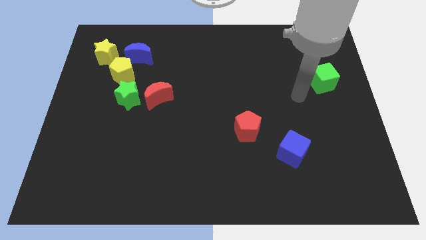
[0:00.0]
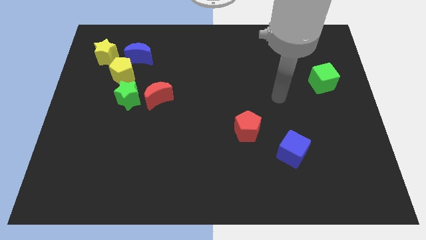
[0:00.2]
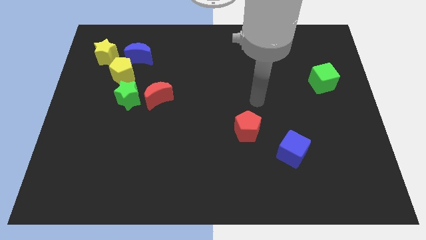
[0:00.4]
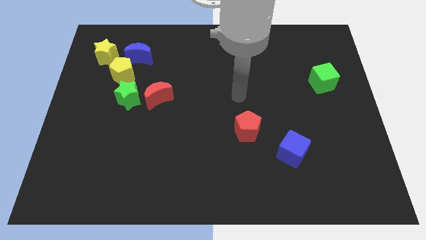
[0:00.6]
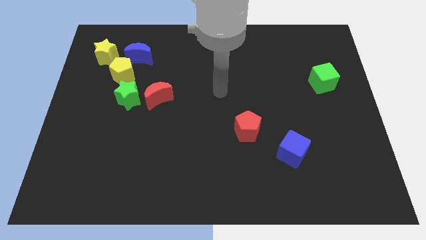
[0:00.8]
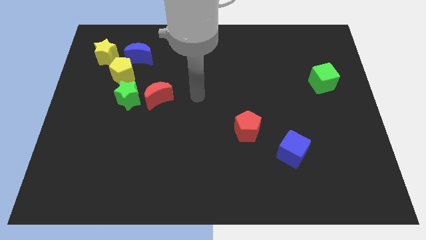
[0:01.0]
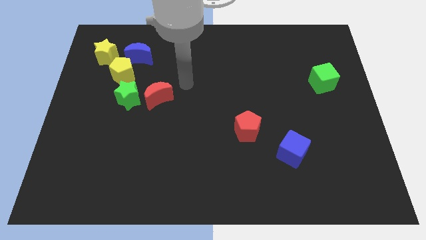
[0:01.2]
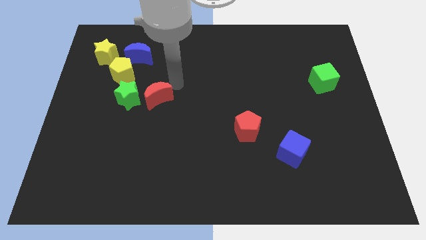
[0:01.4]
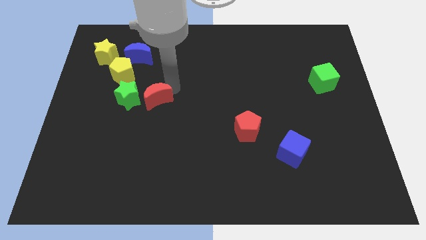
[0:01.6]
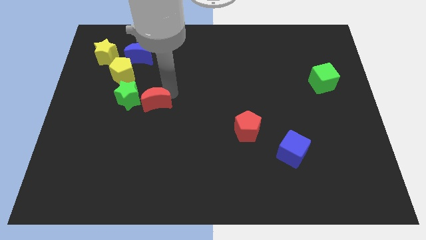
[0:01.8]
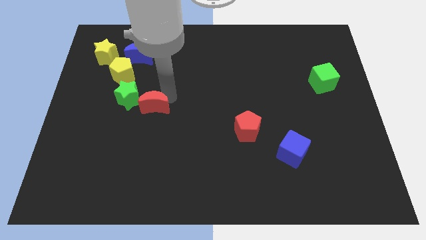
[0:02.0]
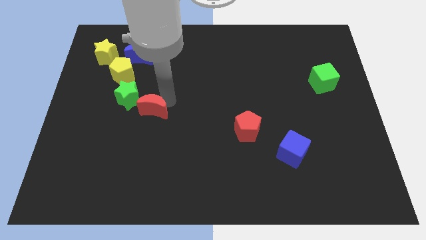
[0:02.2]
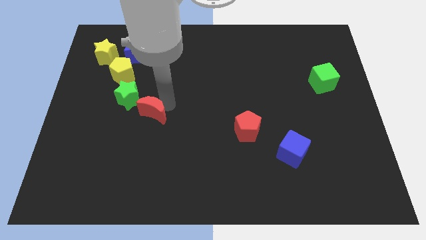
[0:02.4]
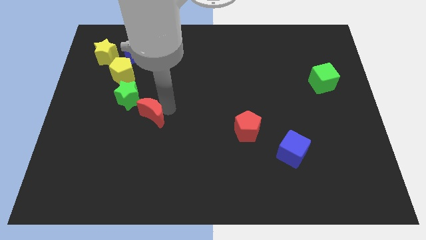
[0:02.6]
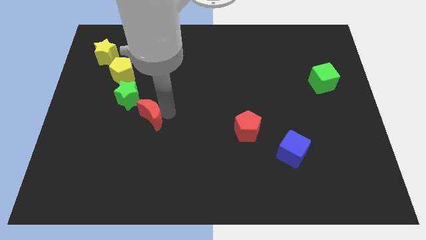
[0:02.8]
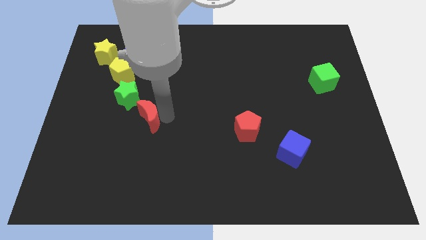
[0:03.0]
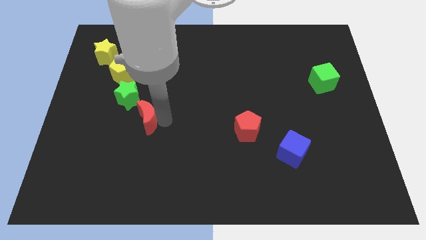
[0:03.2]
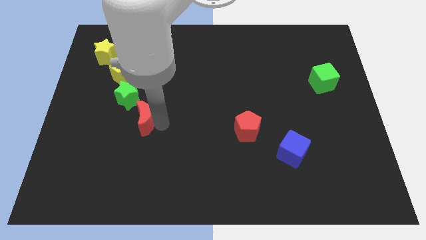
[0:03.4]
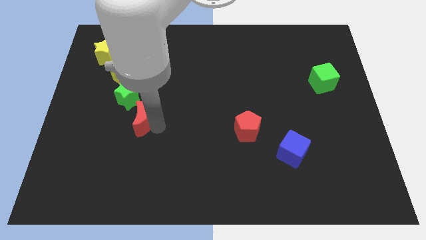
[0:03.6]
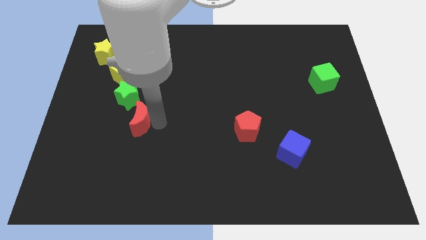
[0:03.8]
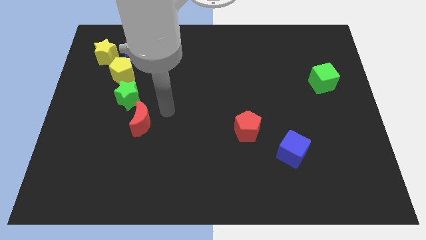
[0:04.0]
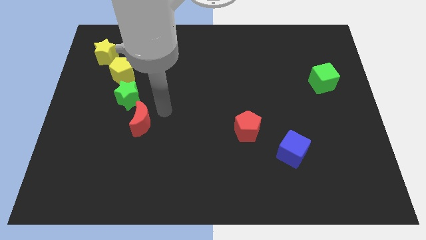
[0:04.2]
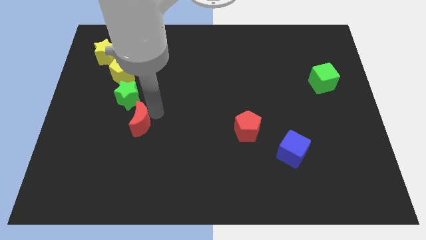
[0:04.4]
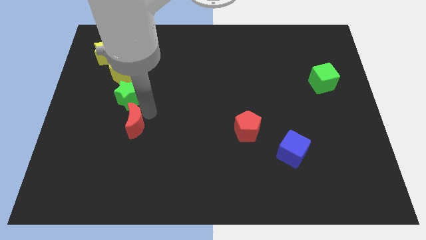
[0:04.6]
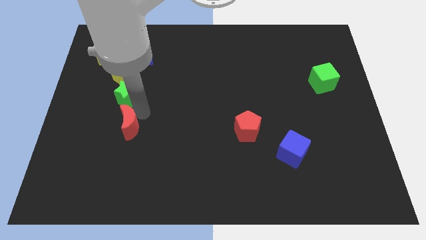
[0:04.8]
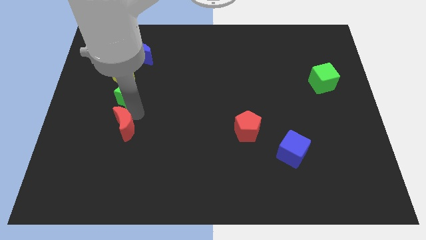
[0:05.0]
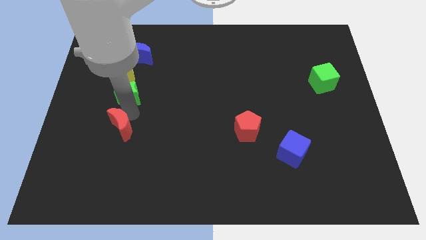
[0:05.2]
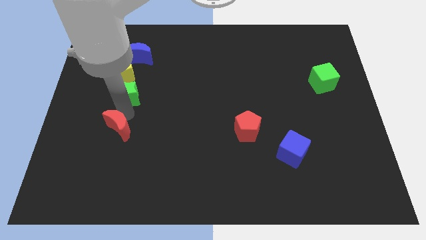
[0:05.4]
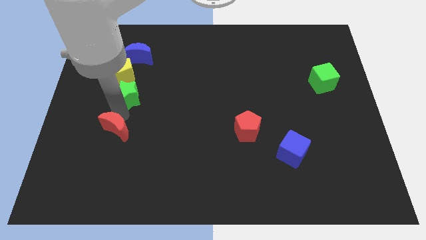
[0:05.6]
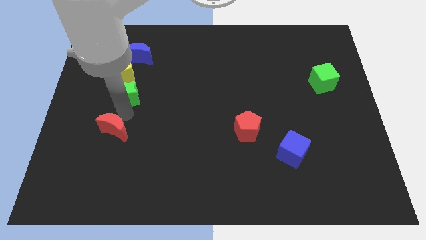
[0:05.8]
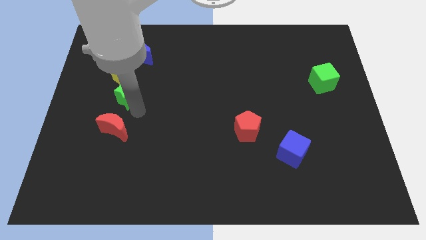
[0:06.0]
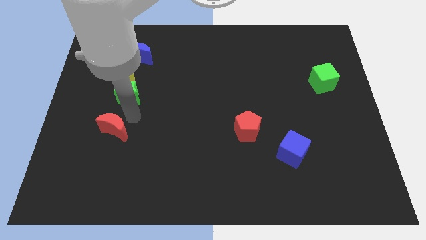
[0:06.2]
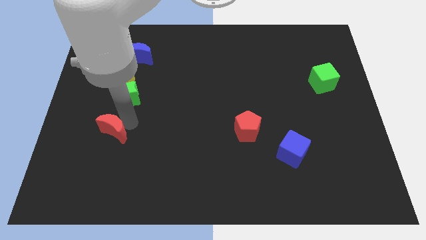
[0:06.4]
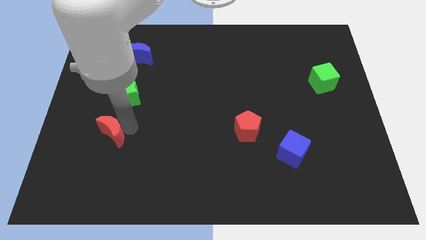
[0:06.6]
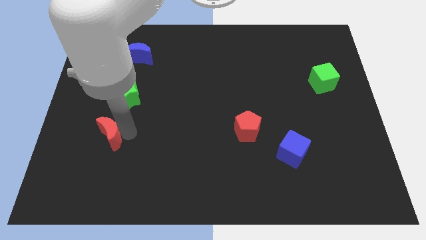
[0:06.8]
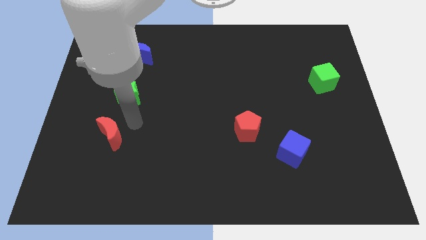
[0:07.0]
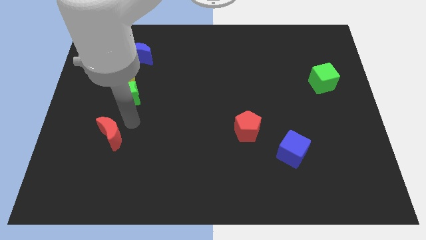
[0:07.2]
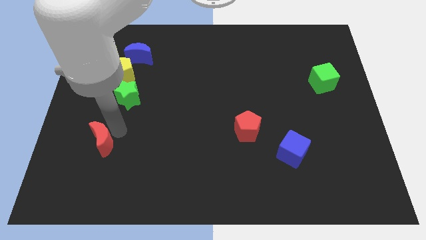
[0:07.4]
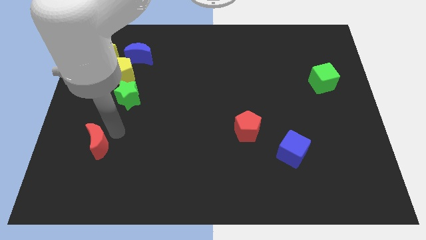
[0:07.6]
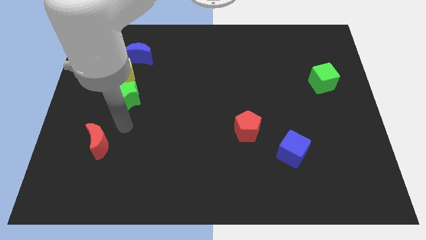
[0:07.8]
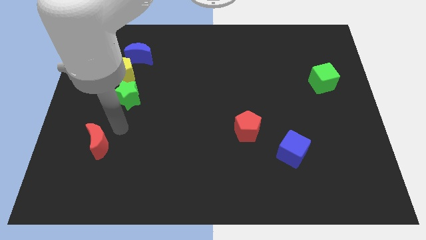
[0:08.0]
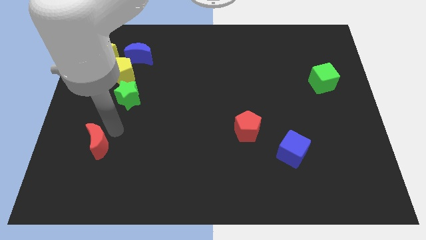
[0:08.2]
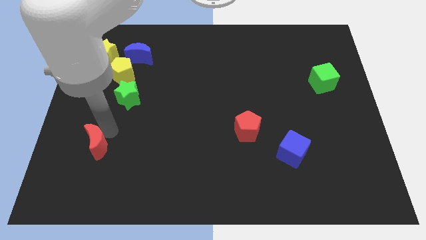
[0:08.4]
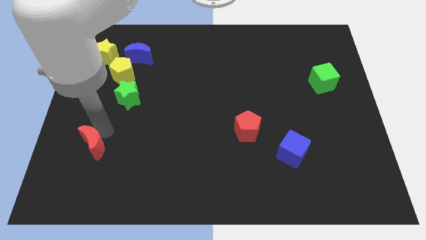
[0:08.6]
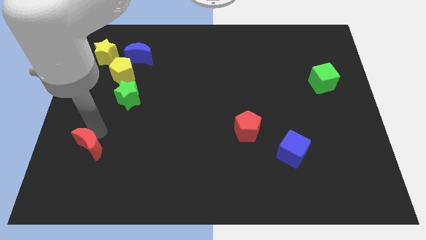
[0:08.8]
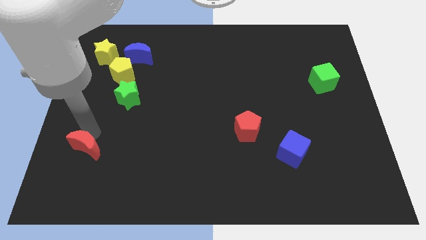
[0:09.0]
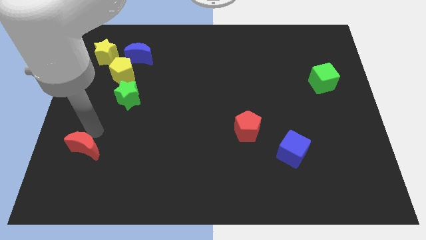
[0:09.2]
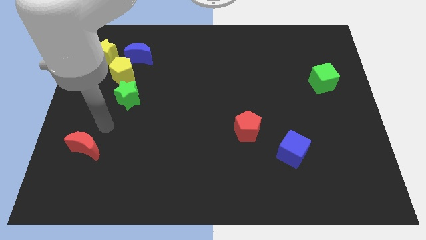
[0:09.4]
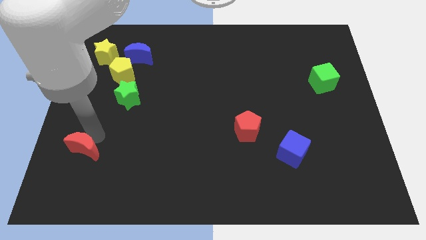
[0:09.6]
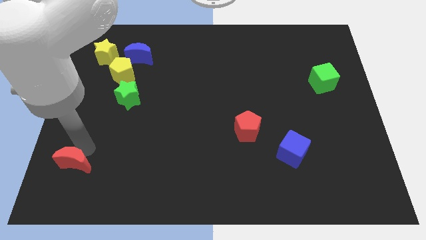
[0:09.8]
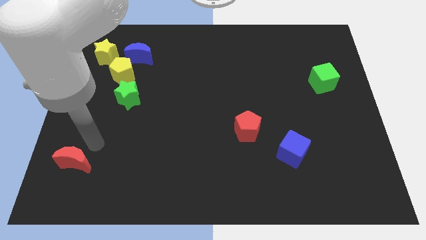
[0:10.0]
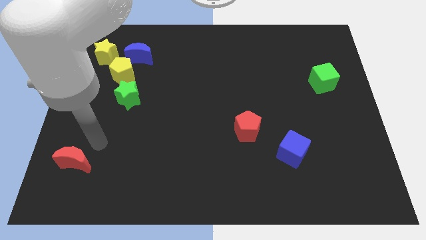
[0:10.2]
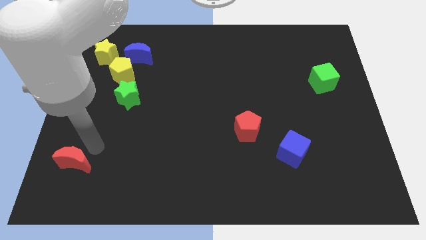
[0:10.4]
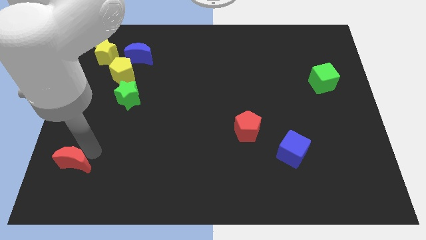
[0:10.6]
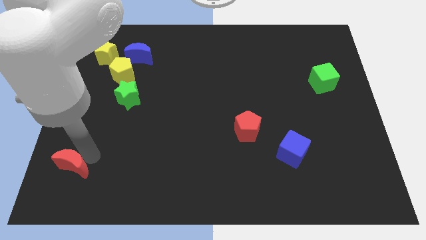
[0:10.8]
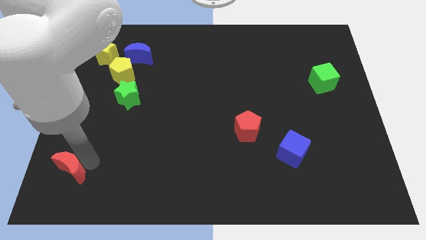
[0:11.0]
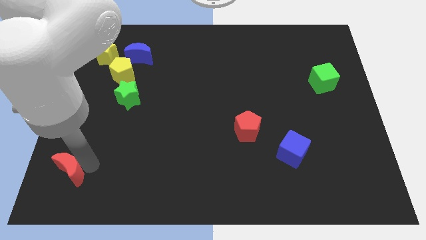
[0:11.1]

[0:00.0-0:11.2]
move the red moon to the bottom left corner

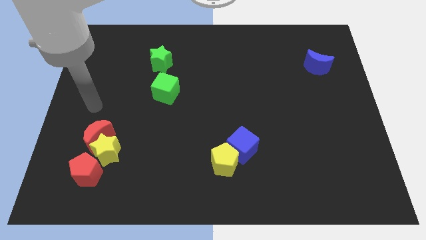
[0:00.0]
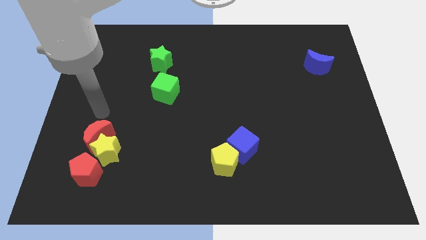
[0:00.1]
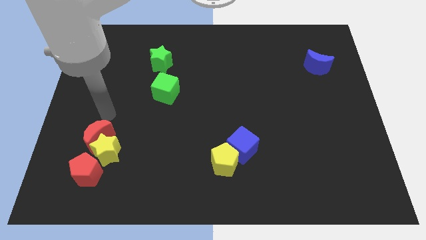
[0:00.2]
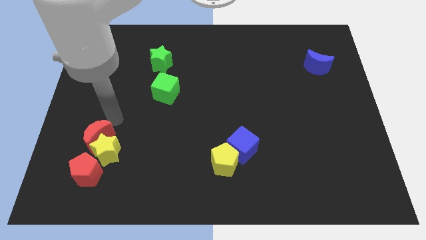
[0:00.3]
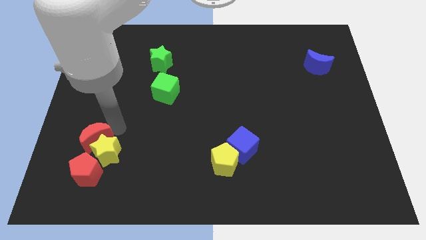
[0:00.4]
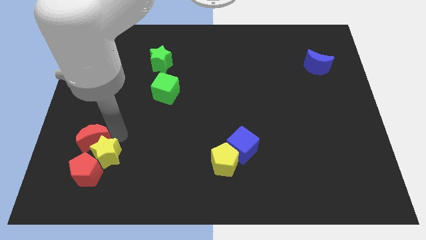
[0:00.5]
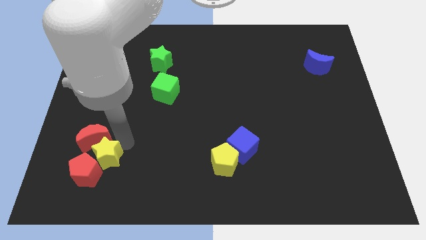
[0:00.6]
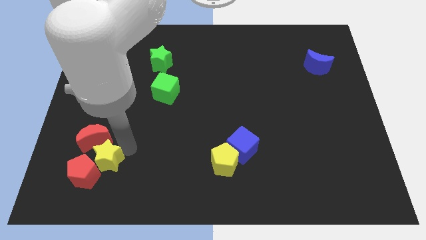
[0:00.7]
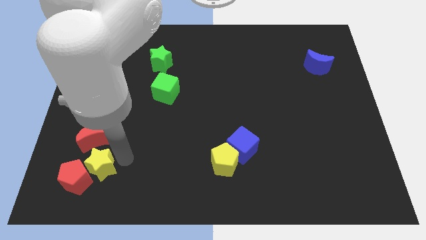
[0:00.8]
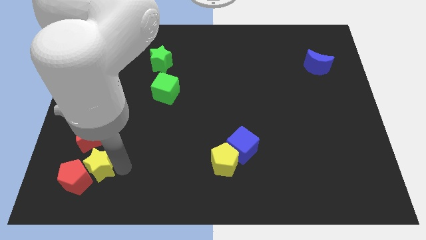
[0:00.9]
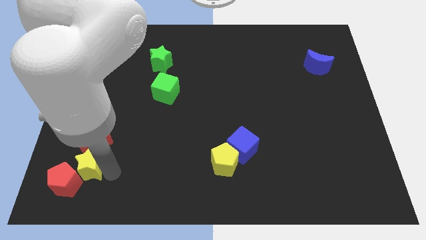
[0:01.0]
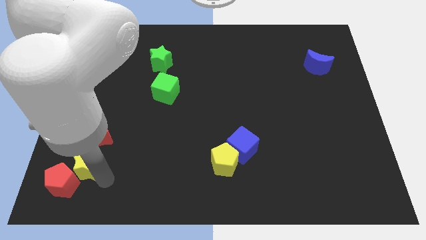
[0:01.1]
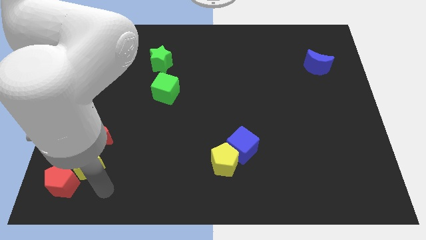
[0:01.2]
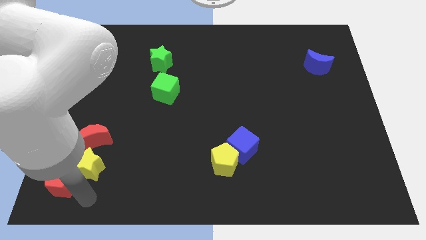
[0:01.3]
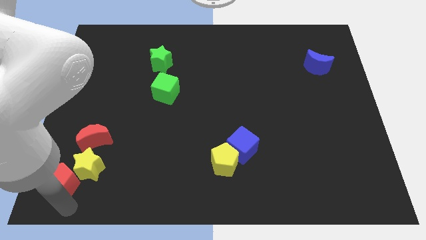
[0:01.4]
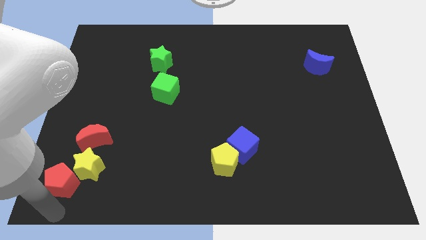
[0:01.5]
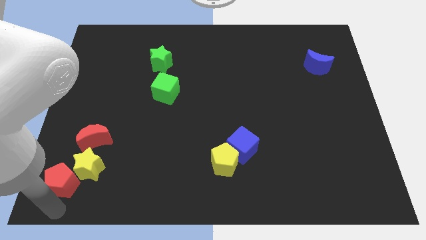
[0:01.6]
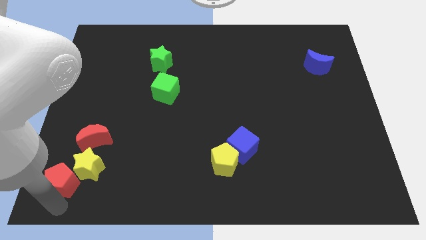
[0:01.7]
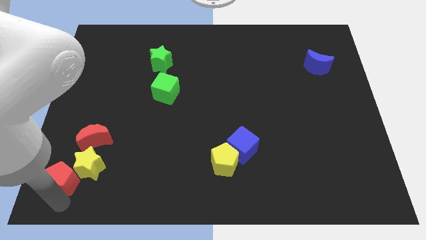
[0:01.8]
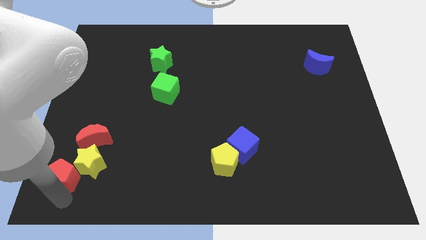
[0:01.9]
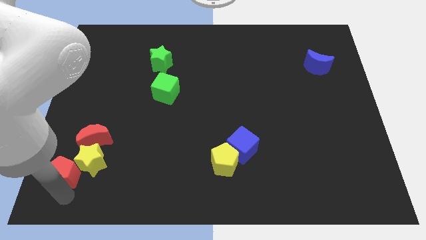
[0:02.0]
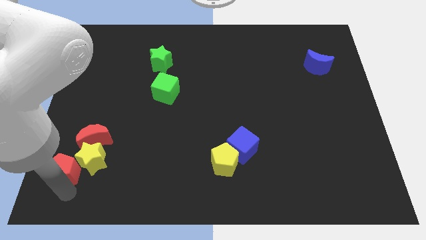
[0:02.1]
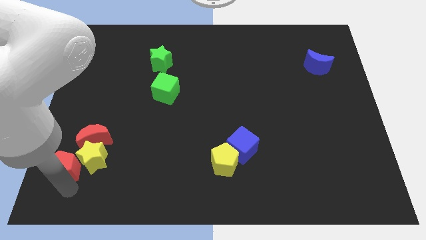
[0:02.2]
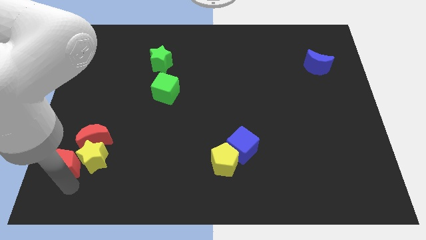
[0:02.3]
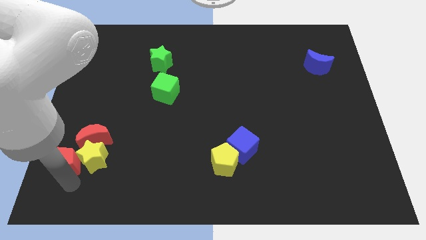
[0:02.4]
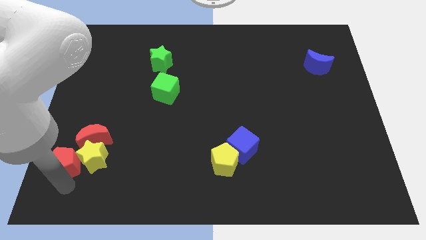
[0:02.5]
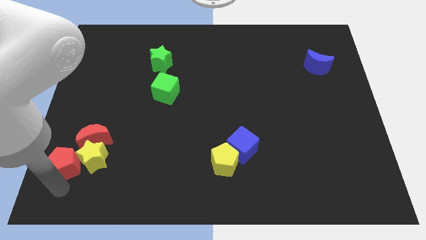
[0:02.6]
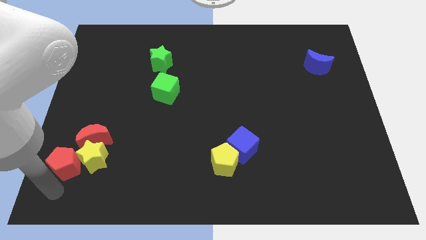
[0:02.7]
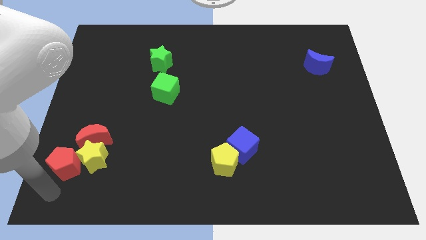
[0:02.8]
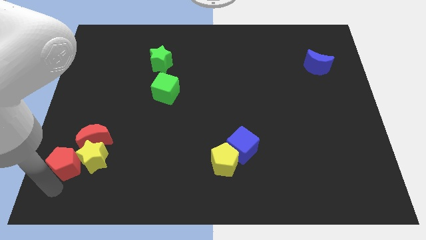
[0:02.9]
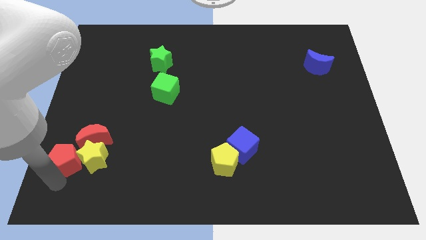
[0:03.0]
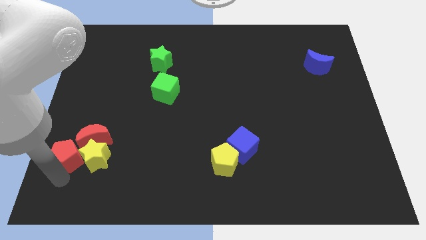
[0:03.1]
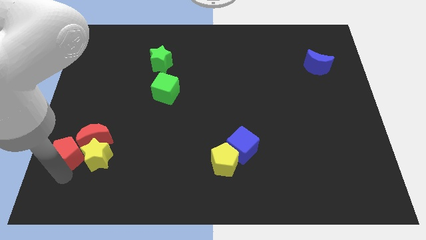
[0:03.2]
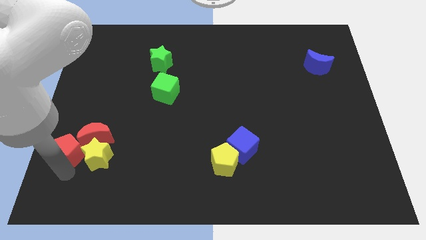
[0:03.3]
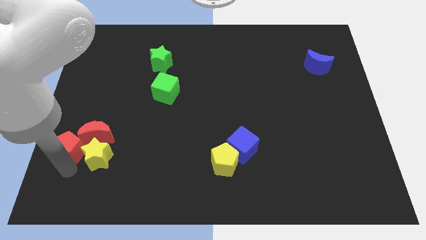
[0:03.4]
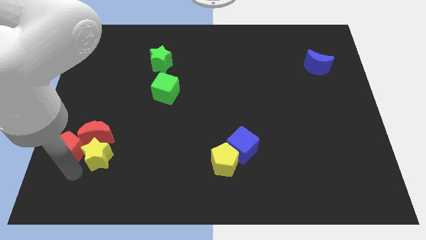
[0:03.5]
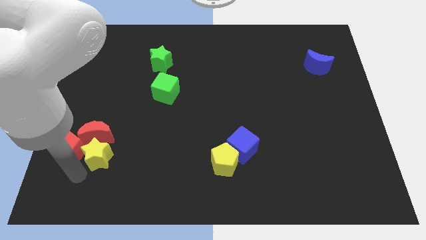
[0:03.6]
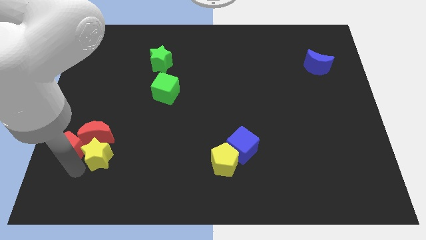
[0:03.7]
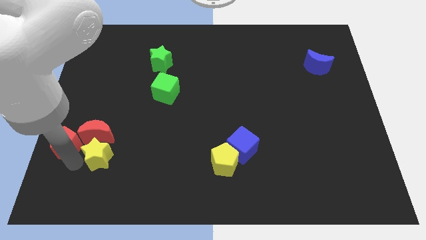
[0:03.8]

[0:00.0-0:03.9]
move the red pentagon to the left side
